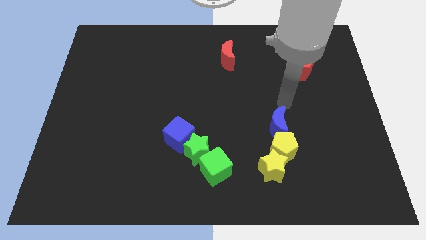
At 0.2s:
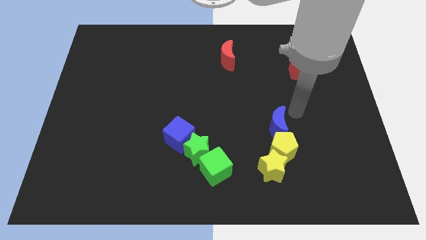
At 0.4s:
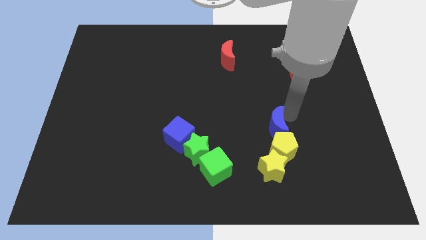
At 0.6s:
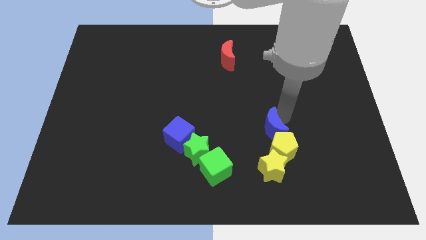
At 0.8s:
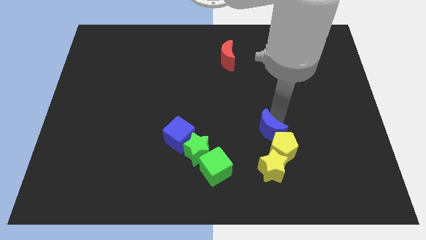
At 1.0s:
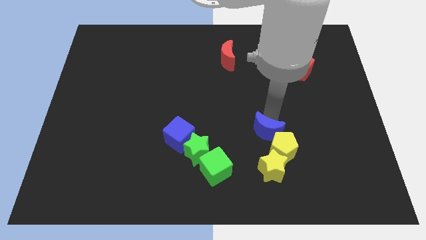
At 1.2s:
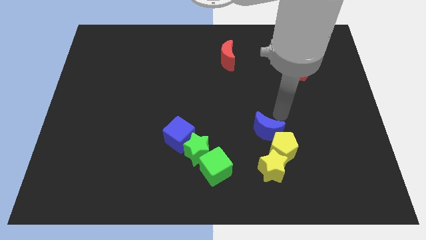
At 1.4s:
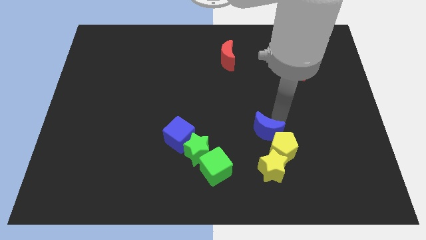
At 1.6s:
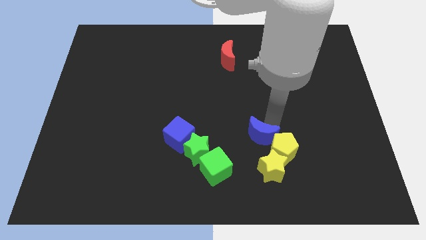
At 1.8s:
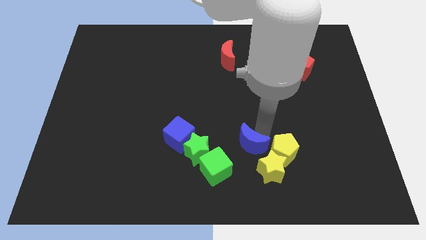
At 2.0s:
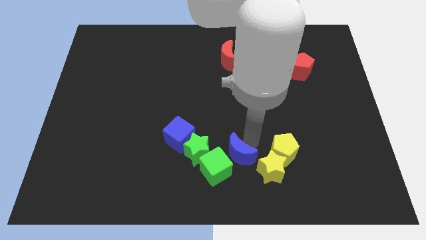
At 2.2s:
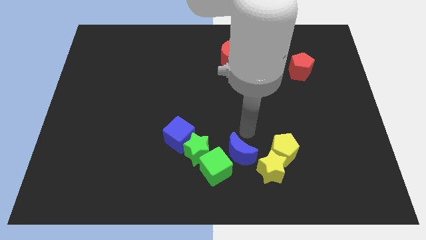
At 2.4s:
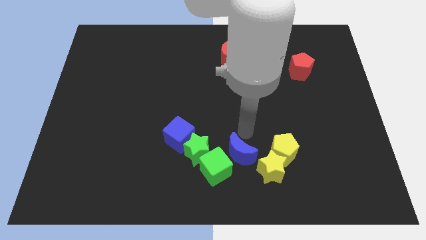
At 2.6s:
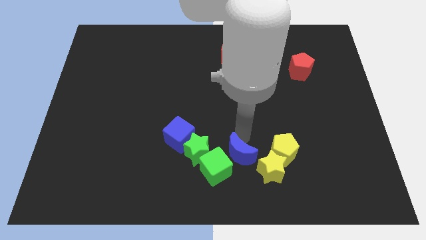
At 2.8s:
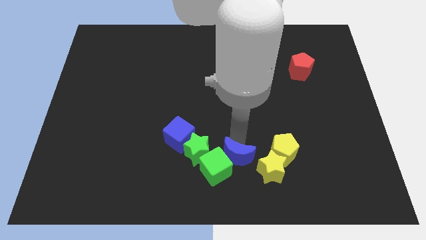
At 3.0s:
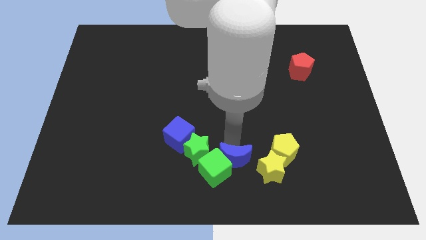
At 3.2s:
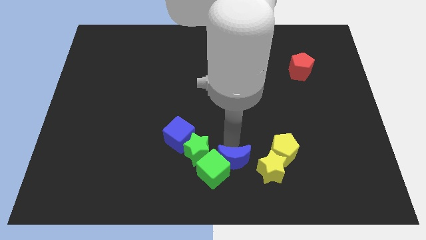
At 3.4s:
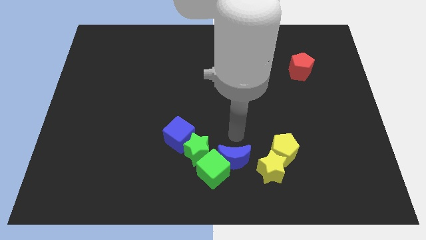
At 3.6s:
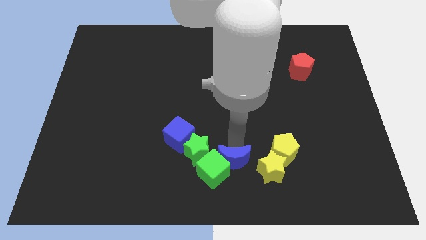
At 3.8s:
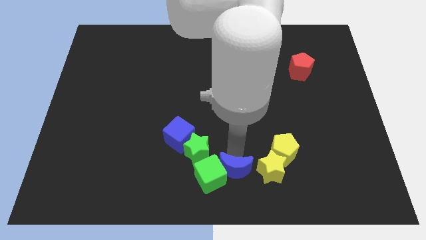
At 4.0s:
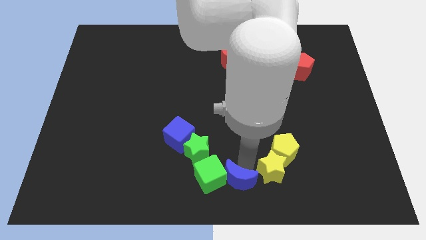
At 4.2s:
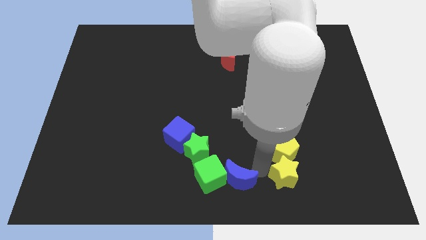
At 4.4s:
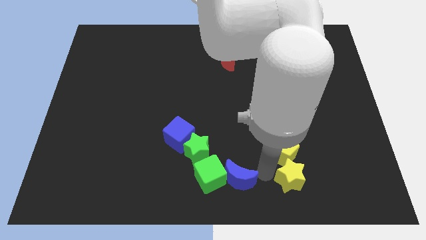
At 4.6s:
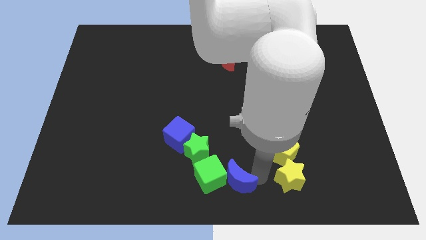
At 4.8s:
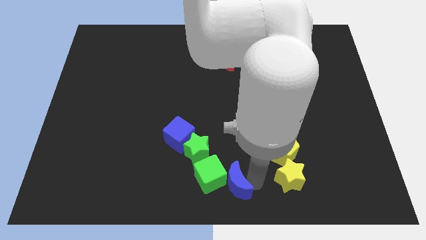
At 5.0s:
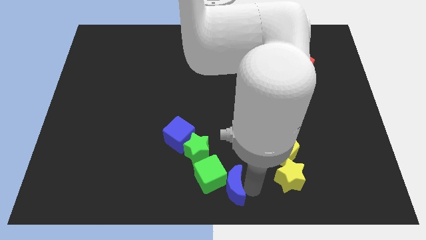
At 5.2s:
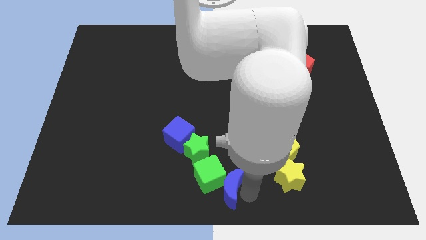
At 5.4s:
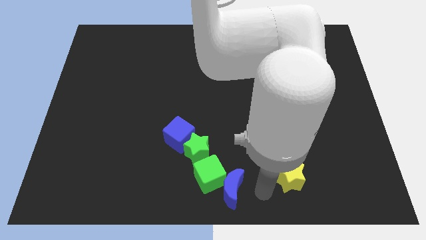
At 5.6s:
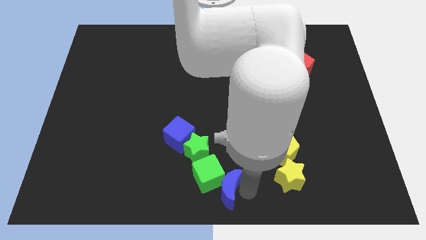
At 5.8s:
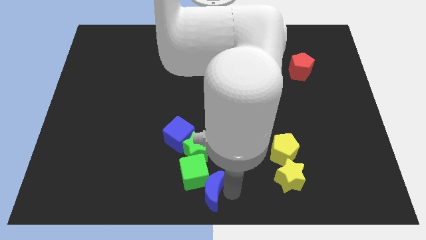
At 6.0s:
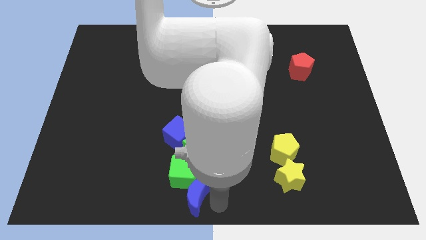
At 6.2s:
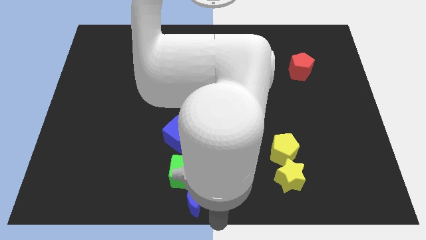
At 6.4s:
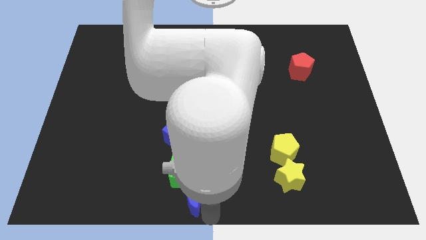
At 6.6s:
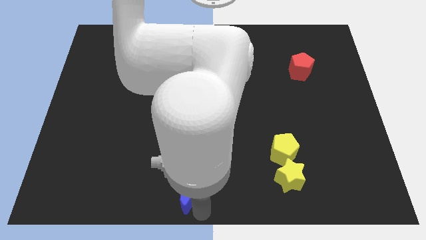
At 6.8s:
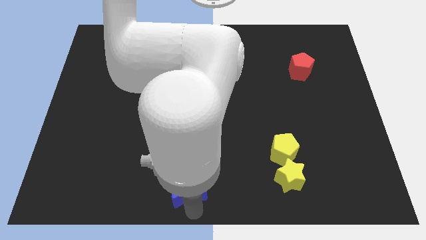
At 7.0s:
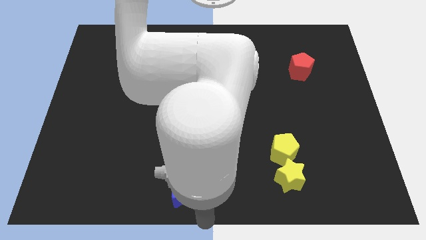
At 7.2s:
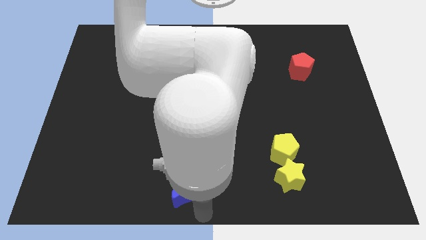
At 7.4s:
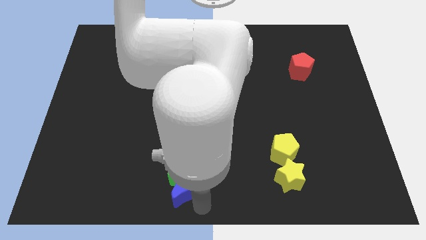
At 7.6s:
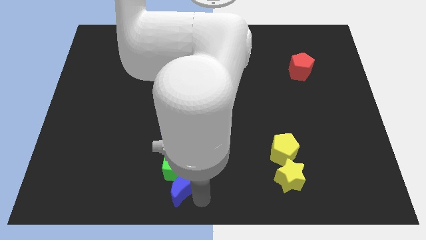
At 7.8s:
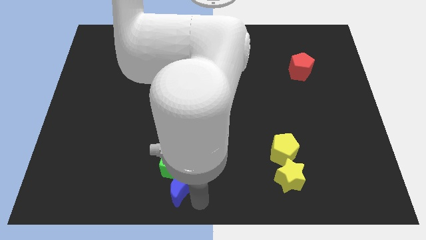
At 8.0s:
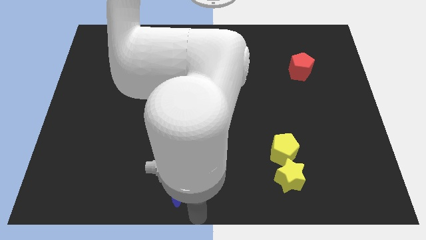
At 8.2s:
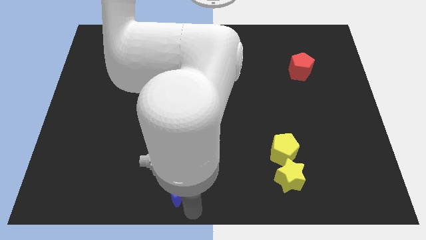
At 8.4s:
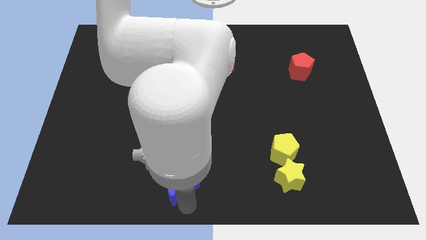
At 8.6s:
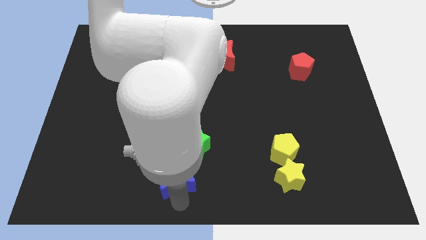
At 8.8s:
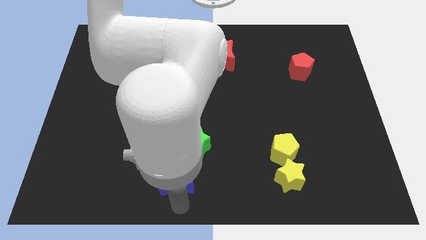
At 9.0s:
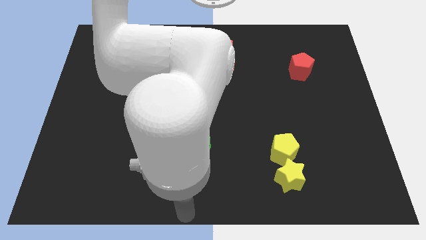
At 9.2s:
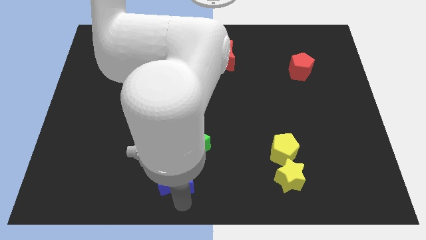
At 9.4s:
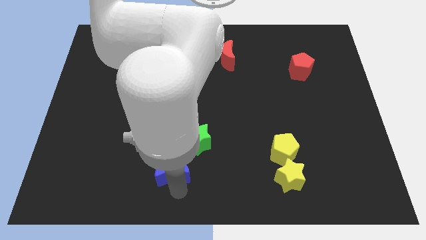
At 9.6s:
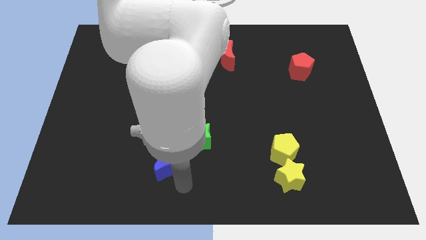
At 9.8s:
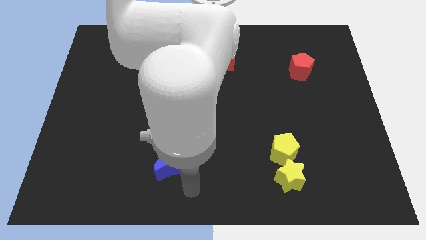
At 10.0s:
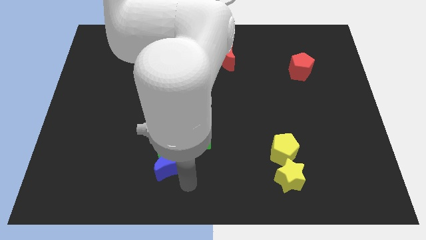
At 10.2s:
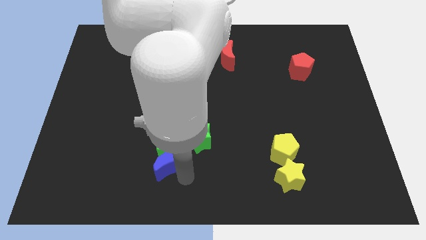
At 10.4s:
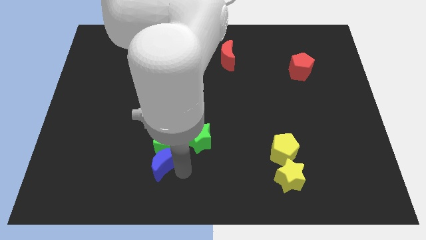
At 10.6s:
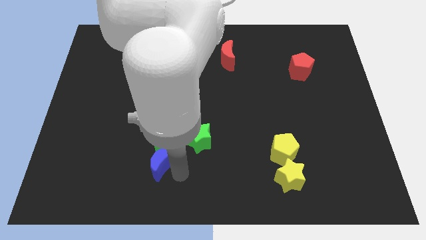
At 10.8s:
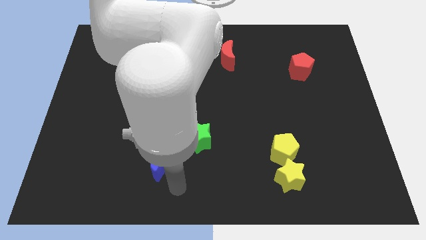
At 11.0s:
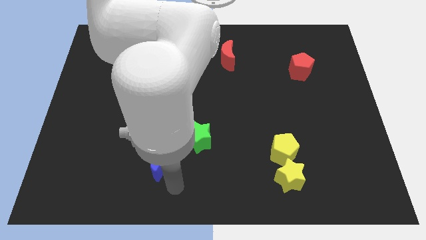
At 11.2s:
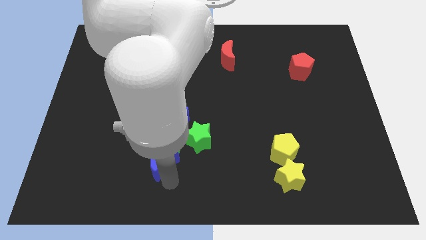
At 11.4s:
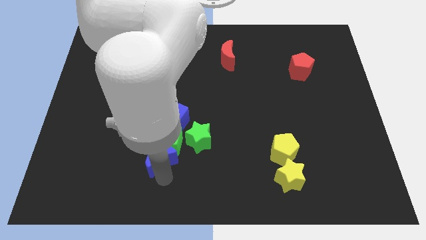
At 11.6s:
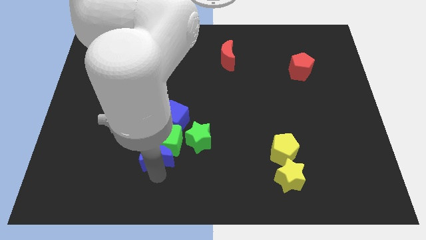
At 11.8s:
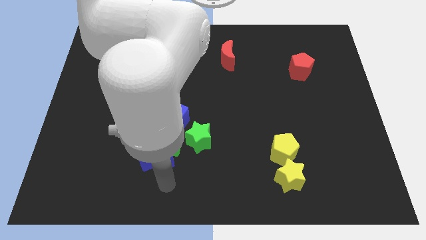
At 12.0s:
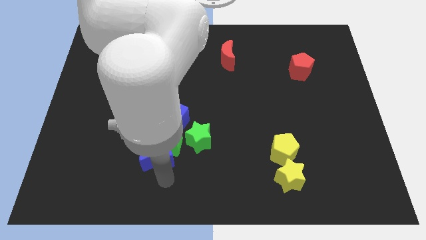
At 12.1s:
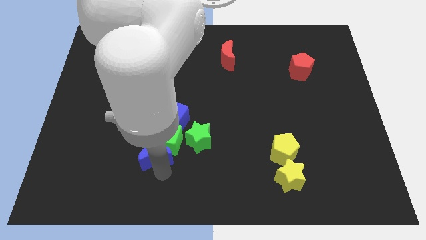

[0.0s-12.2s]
slide the blue moon diagonally down and to the left of the blue cube
